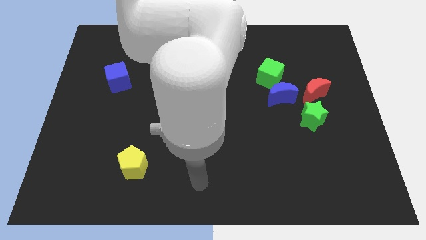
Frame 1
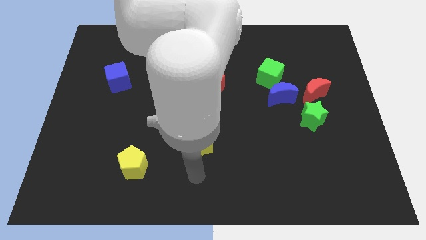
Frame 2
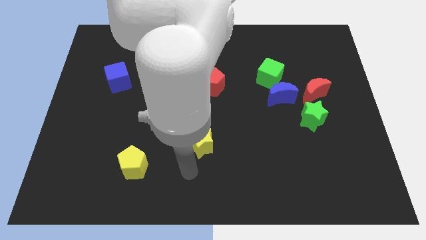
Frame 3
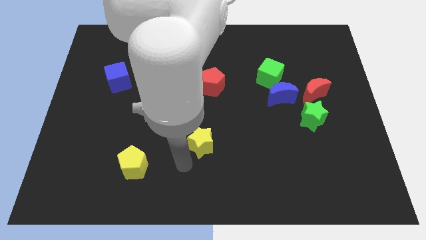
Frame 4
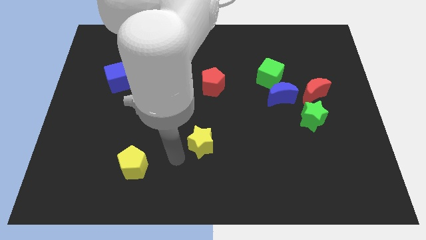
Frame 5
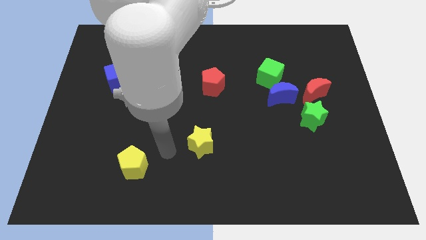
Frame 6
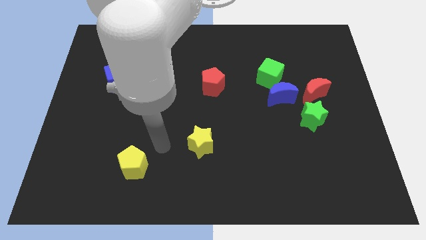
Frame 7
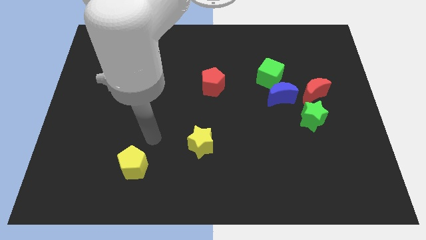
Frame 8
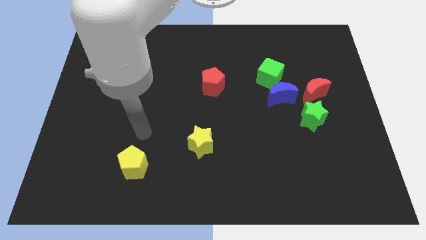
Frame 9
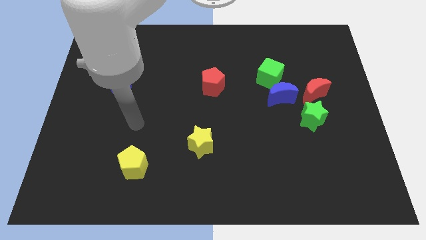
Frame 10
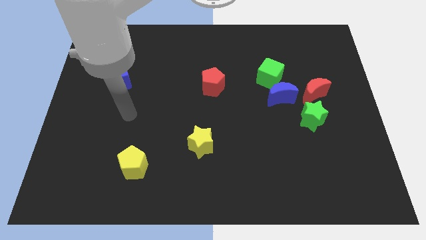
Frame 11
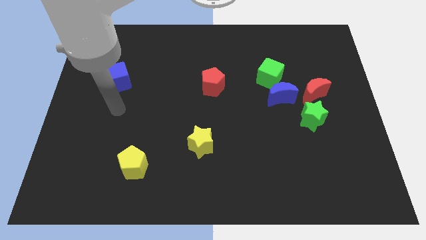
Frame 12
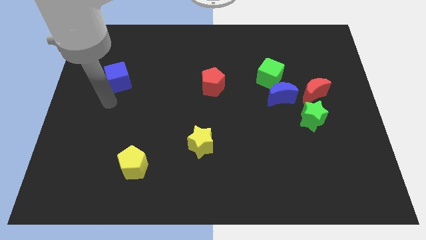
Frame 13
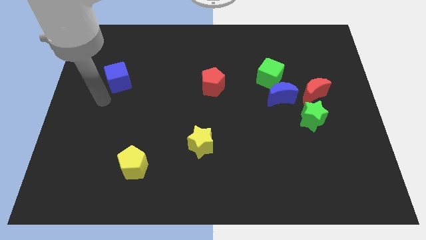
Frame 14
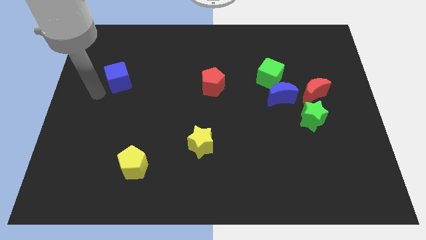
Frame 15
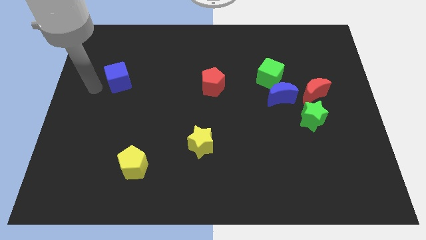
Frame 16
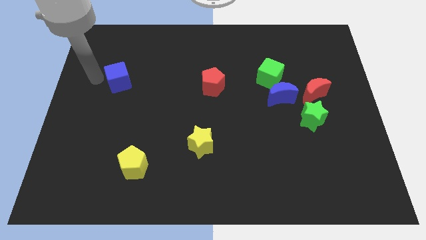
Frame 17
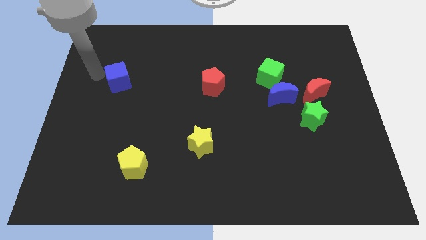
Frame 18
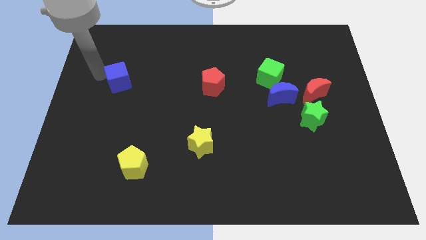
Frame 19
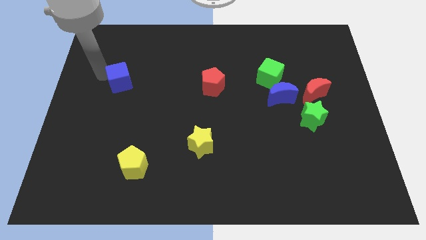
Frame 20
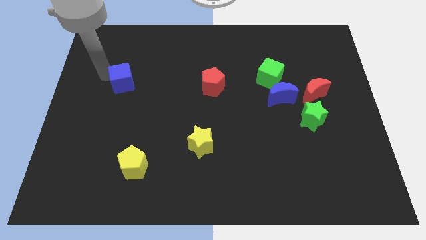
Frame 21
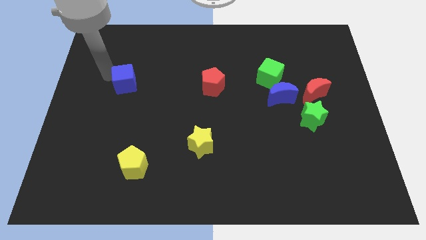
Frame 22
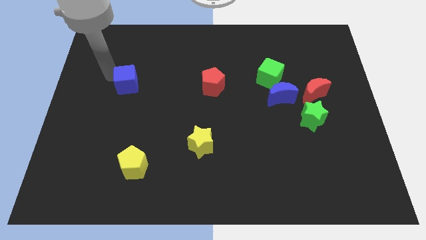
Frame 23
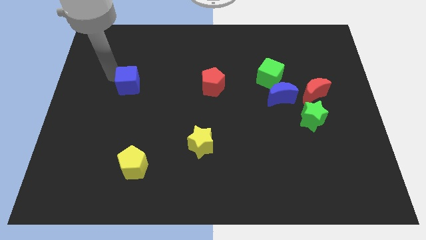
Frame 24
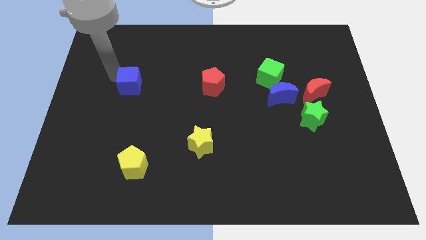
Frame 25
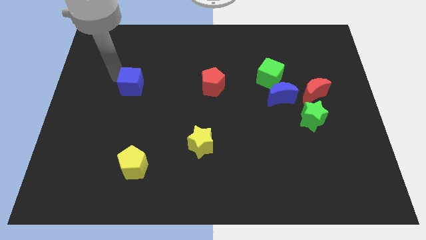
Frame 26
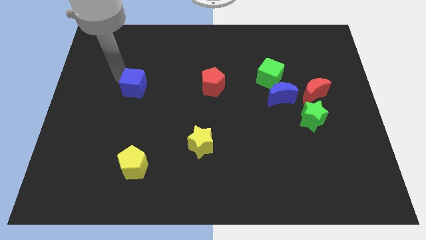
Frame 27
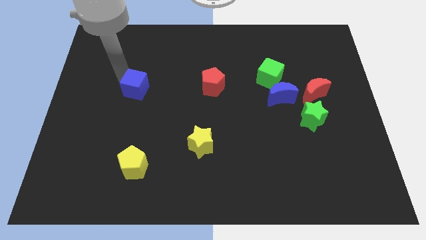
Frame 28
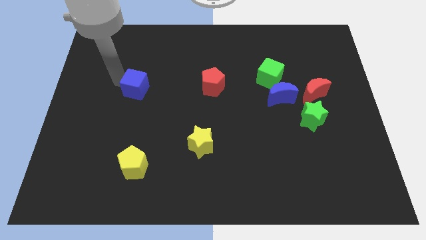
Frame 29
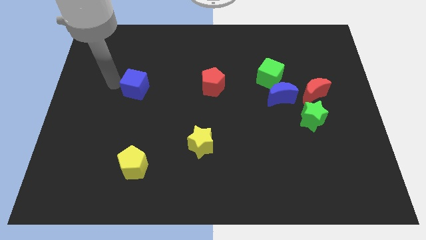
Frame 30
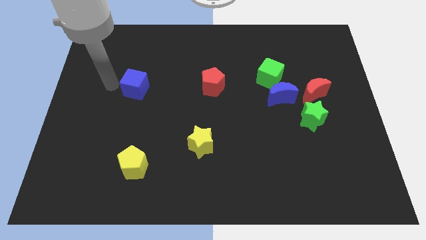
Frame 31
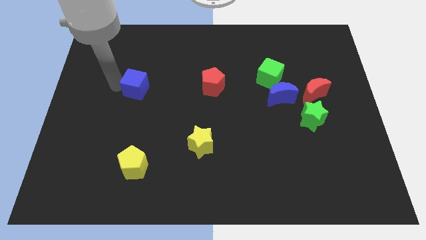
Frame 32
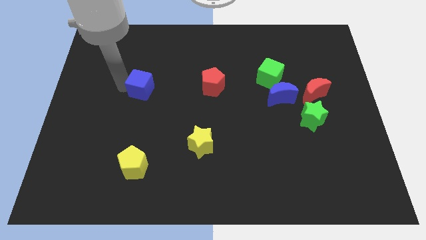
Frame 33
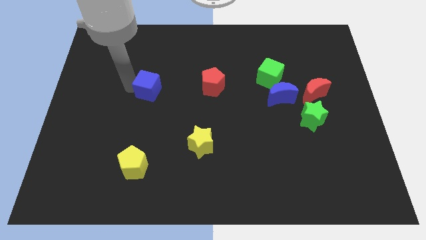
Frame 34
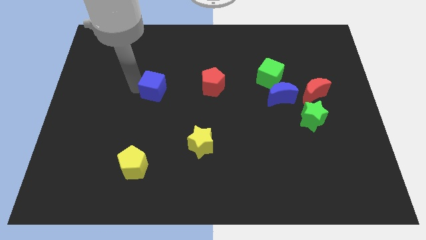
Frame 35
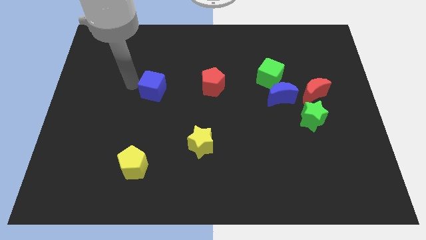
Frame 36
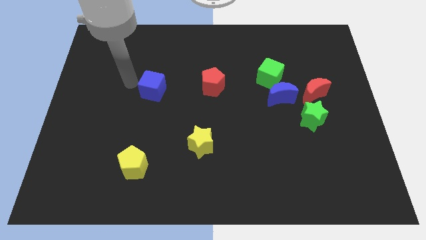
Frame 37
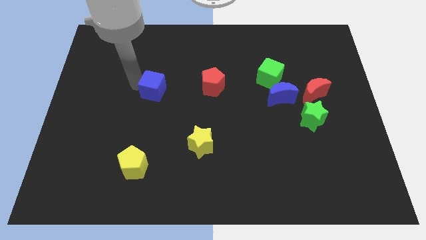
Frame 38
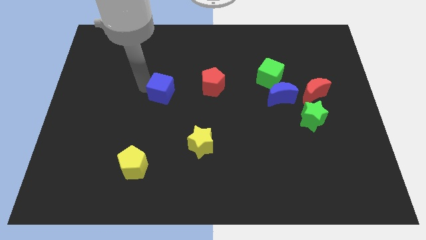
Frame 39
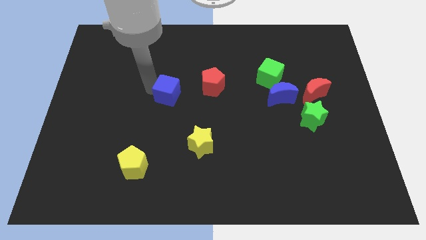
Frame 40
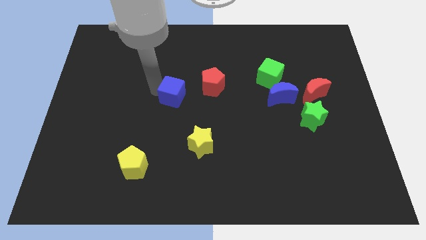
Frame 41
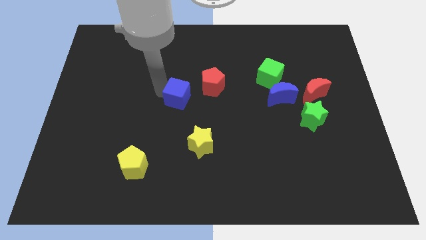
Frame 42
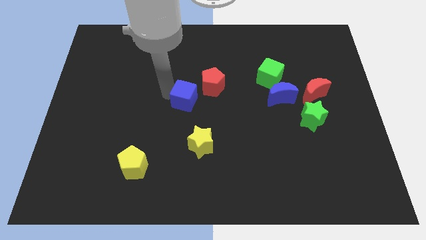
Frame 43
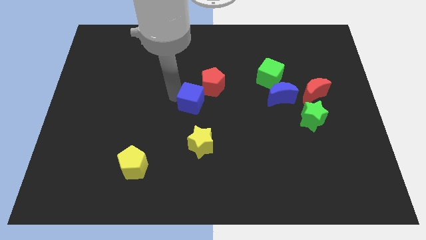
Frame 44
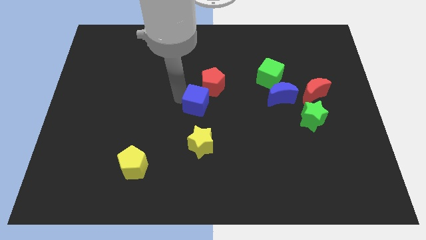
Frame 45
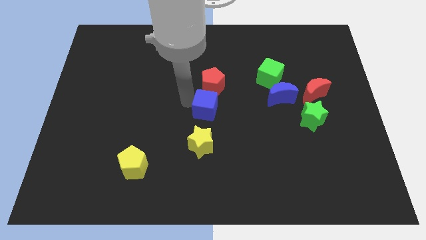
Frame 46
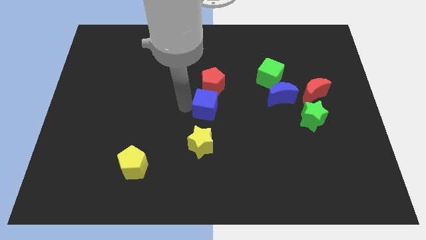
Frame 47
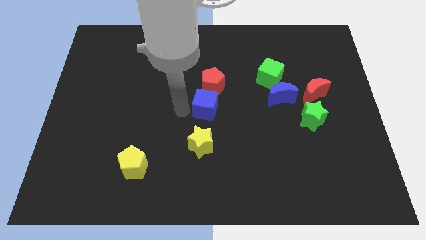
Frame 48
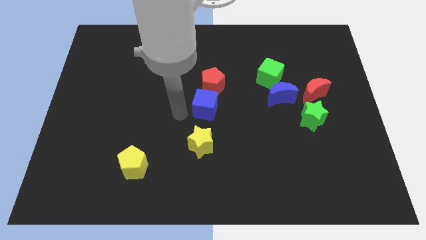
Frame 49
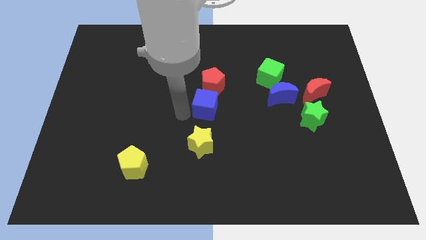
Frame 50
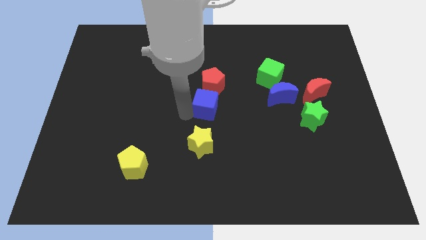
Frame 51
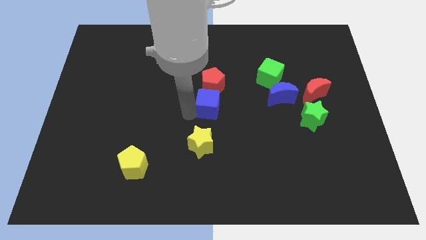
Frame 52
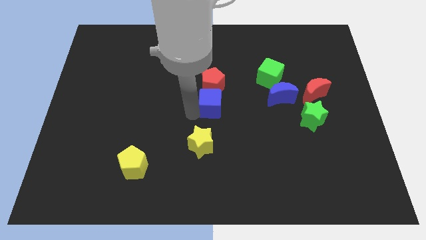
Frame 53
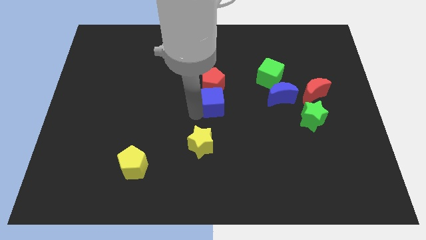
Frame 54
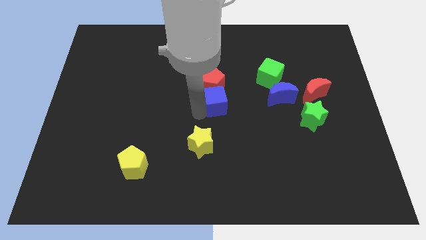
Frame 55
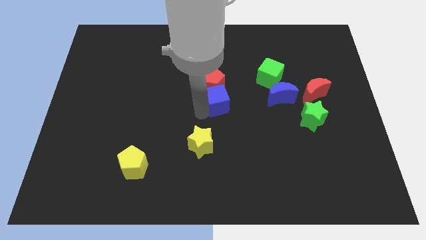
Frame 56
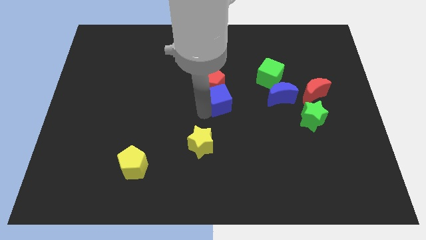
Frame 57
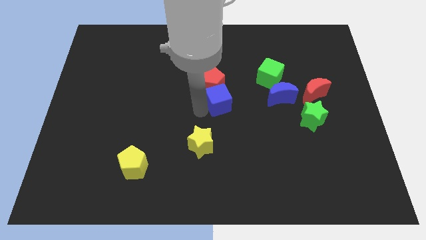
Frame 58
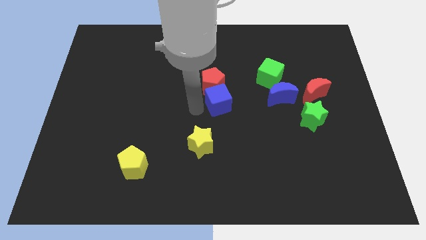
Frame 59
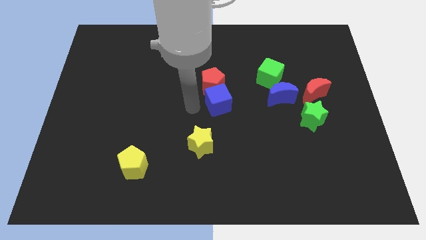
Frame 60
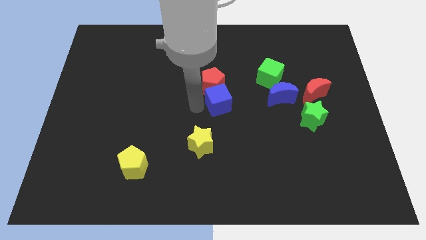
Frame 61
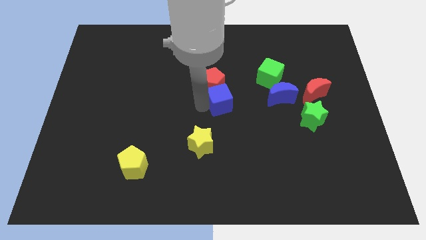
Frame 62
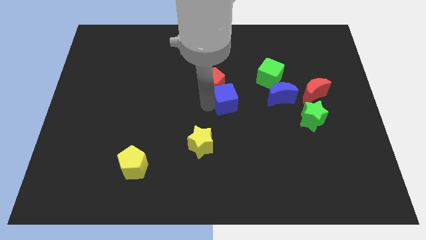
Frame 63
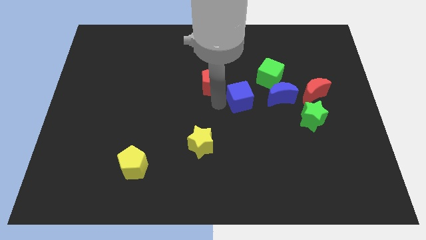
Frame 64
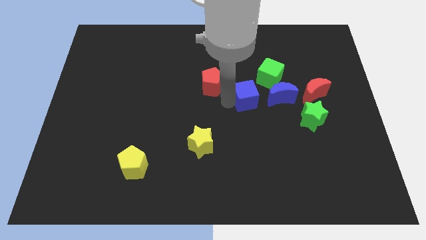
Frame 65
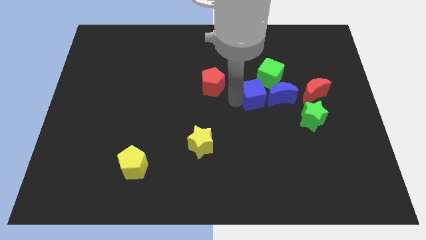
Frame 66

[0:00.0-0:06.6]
slide the blue cube left of the red moon
